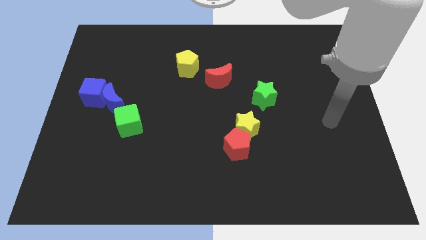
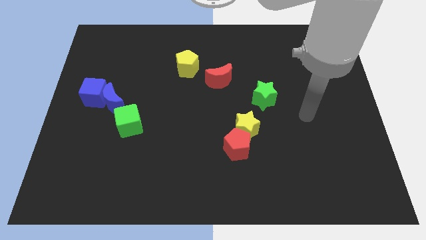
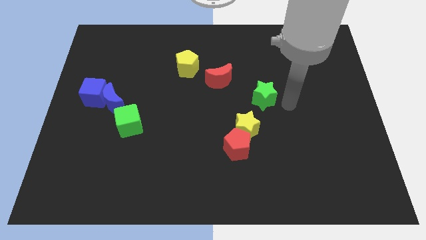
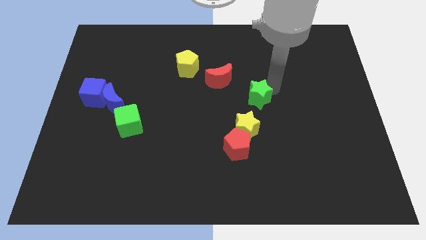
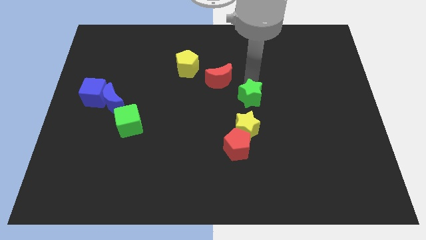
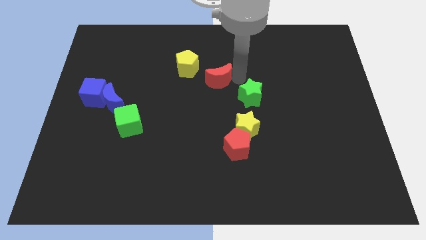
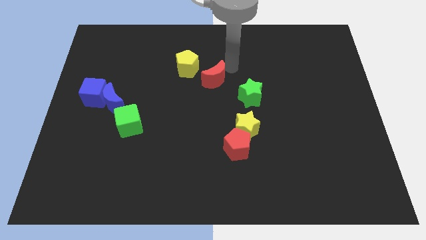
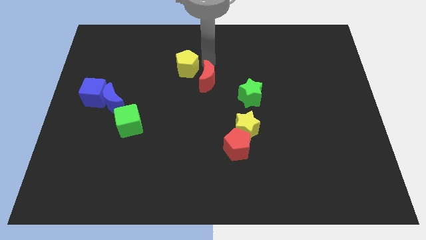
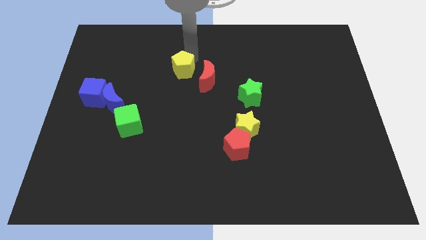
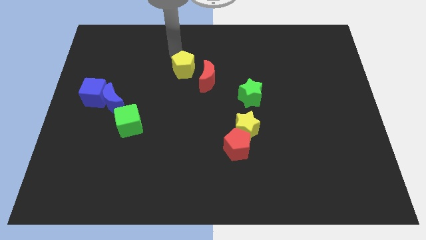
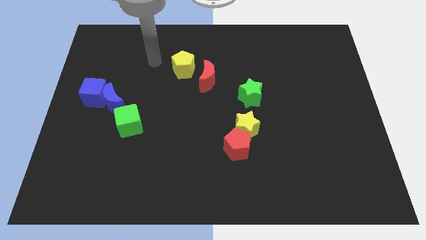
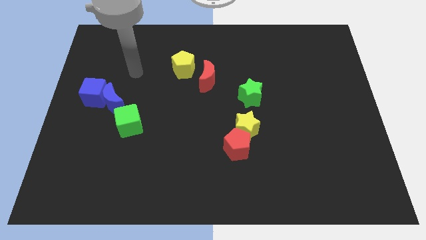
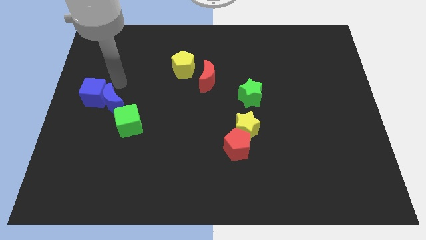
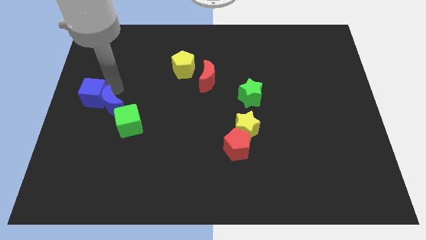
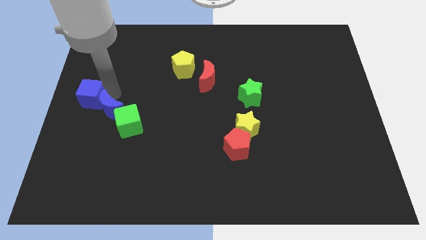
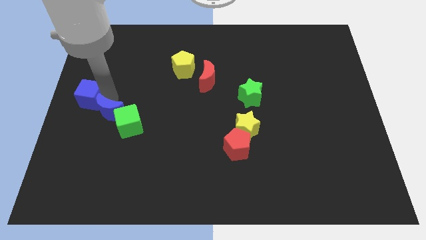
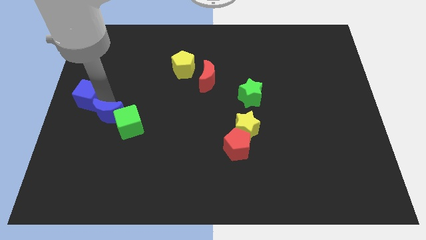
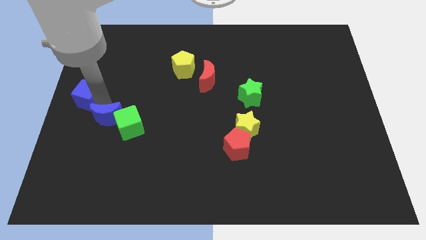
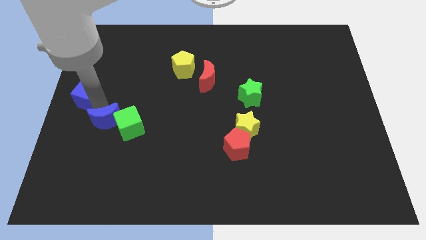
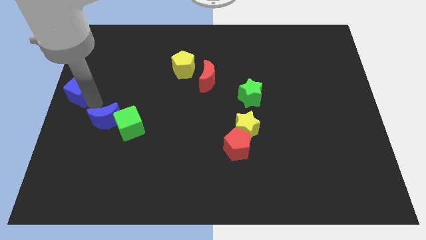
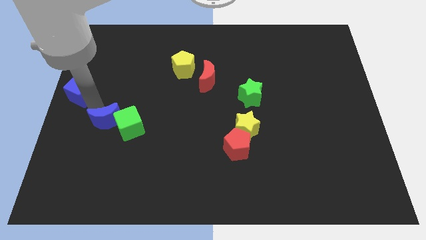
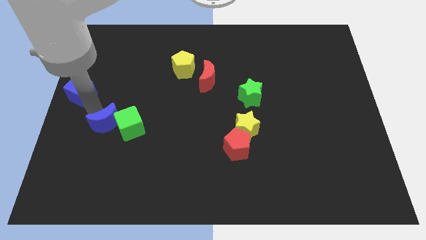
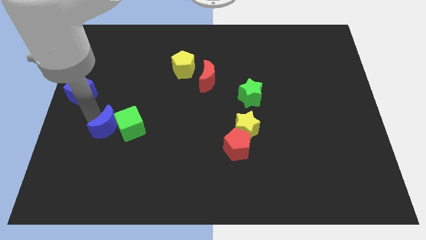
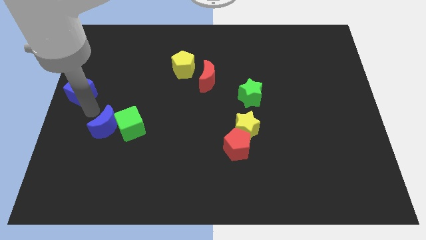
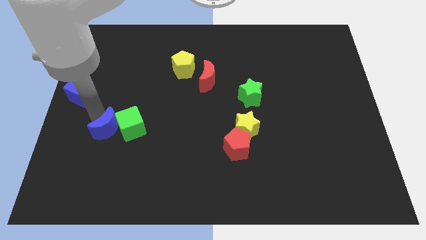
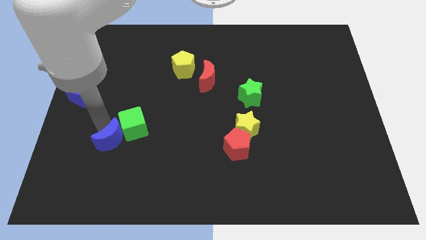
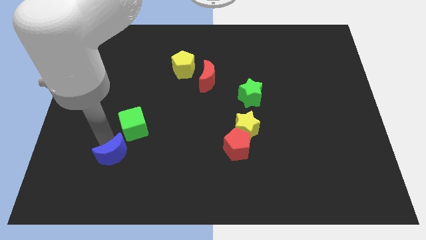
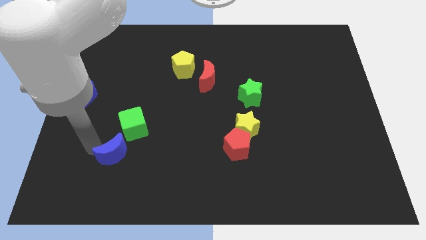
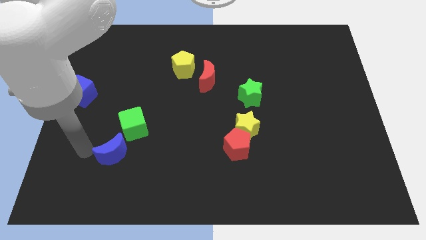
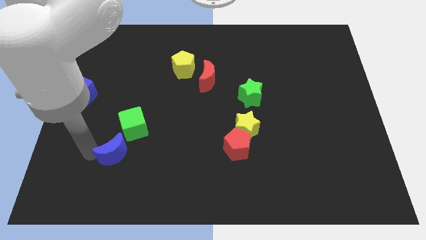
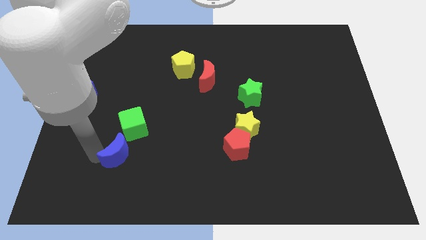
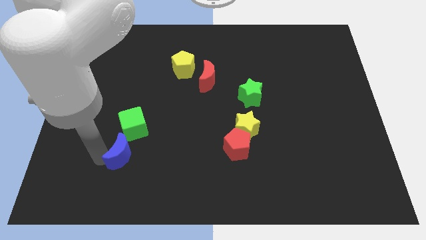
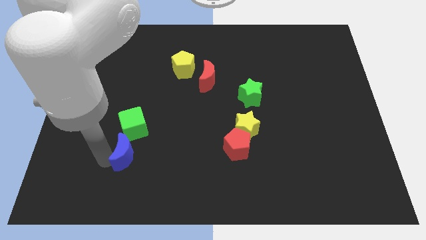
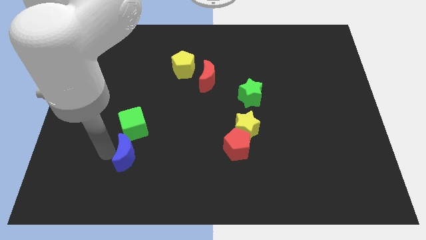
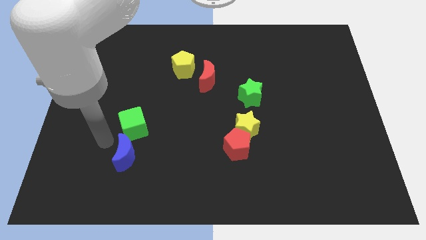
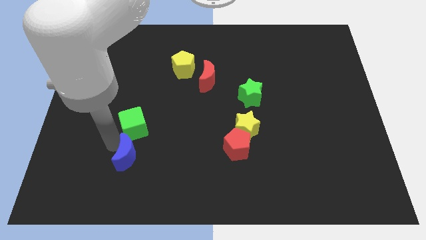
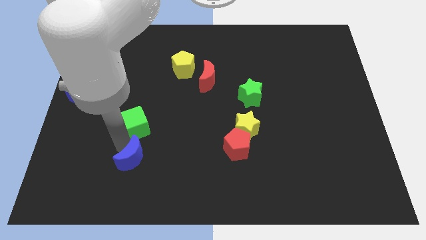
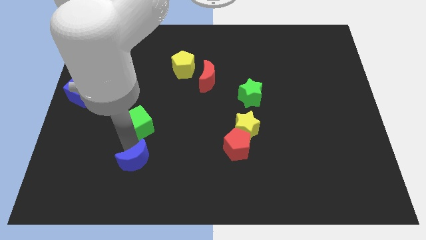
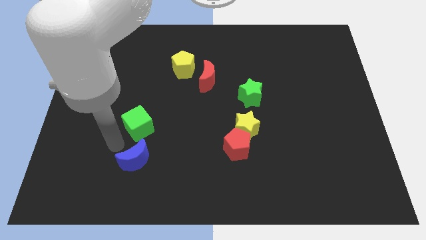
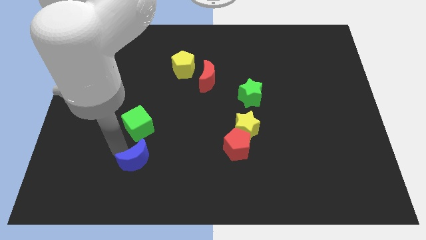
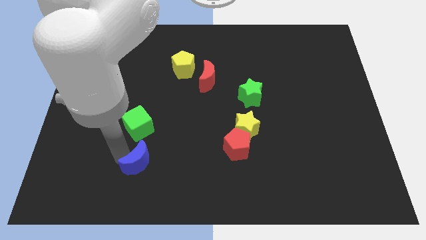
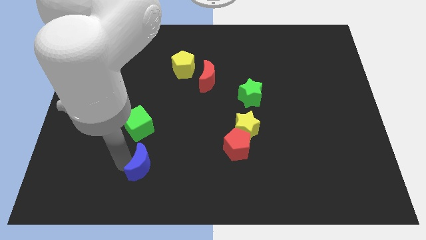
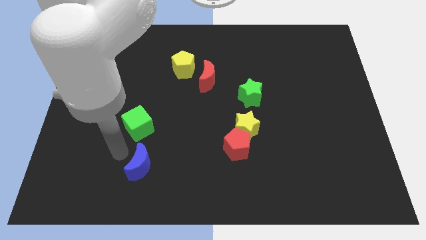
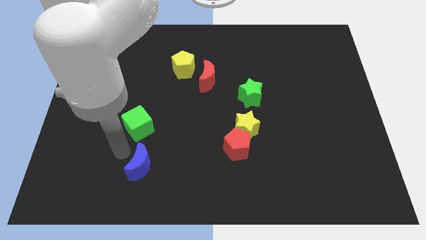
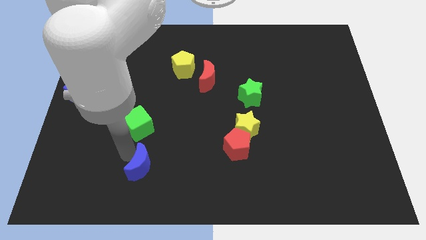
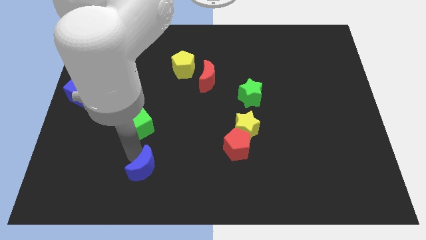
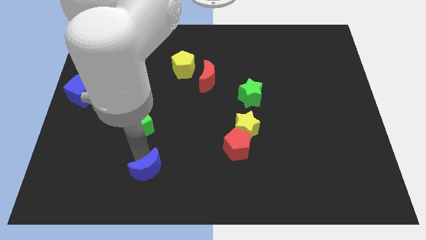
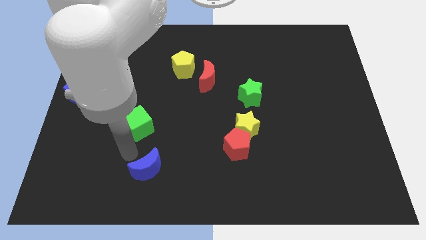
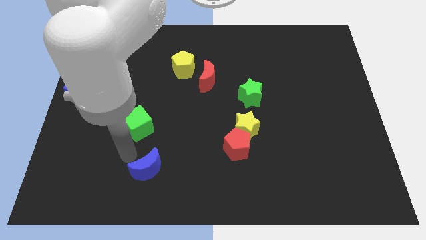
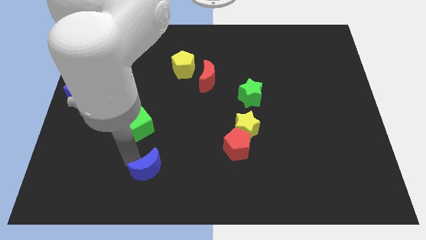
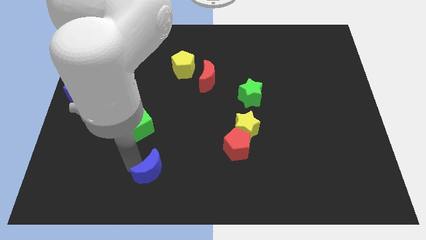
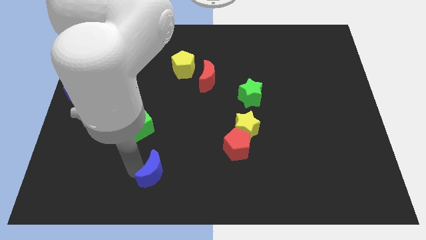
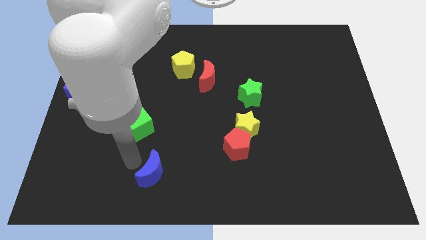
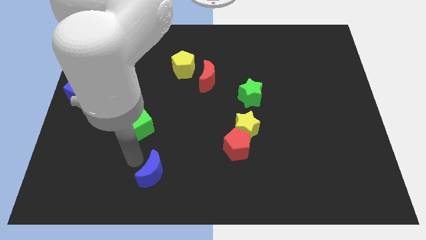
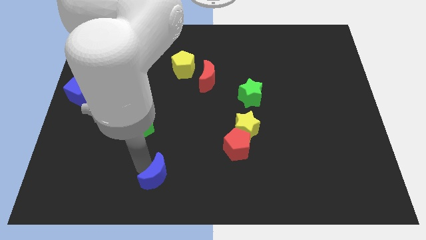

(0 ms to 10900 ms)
move the blue moon to the bottom
